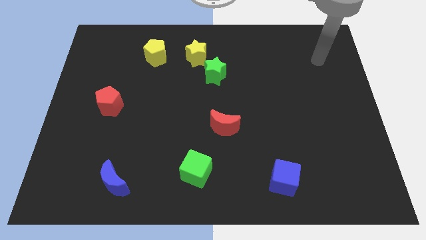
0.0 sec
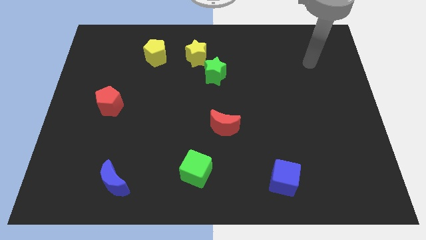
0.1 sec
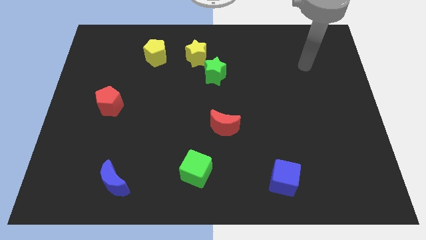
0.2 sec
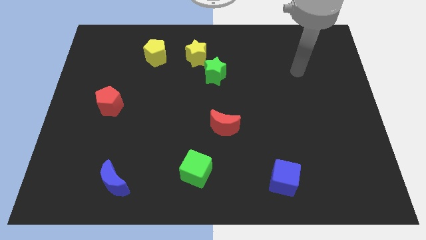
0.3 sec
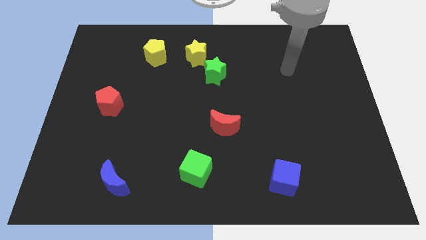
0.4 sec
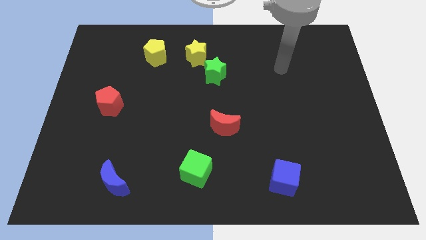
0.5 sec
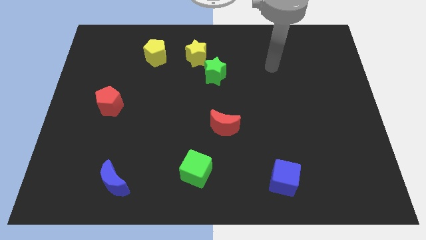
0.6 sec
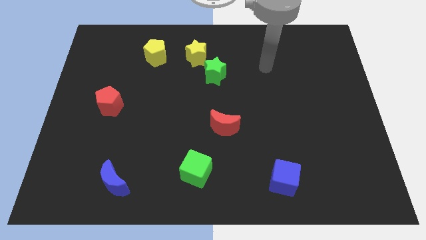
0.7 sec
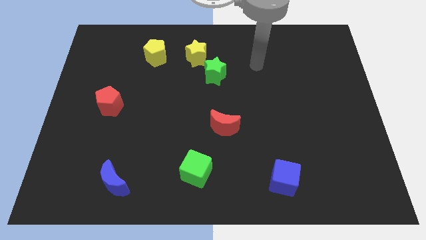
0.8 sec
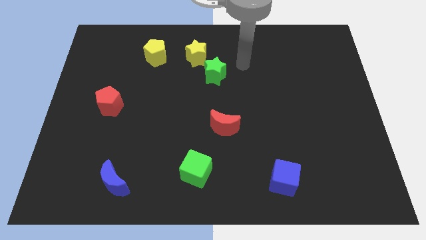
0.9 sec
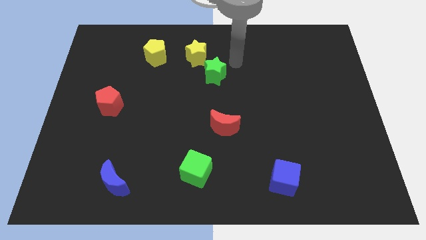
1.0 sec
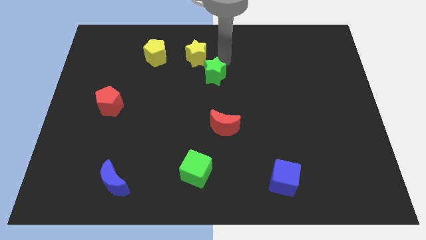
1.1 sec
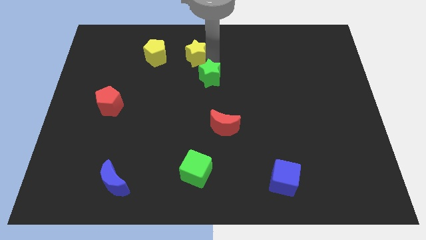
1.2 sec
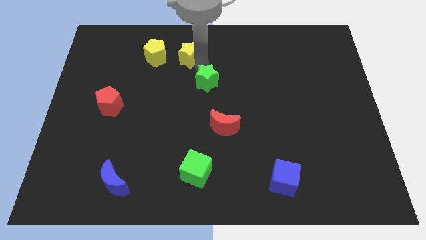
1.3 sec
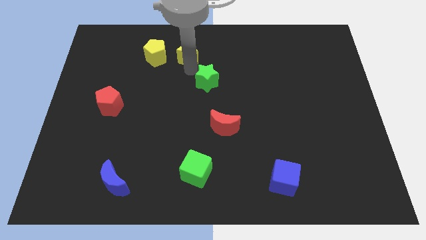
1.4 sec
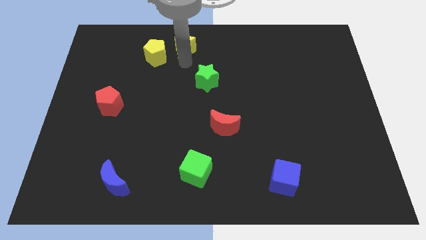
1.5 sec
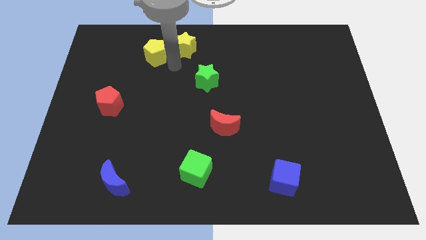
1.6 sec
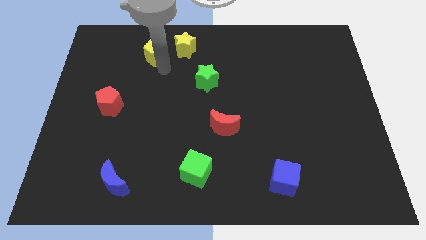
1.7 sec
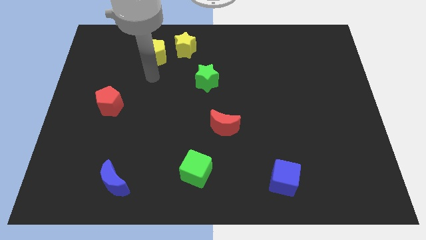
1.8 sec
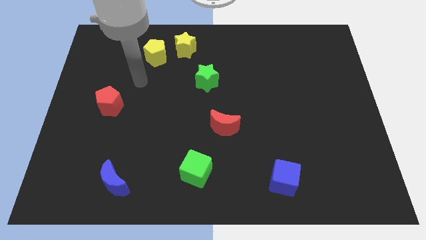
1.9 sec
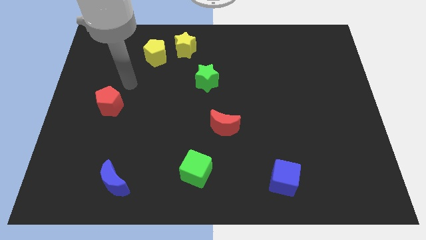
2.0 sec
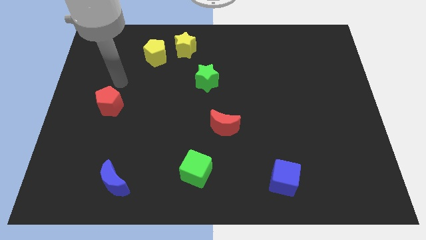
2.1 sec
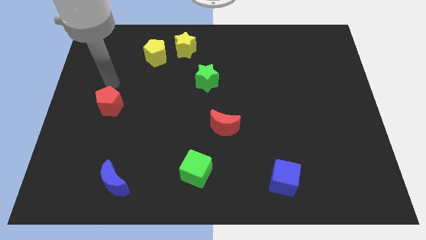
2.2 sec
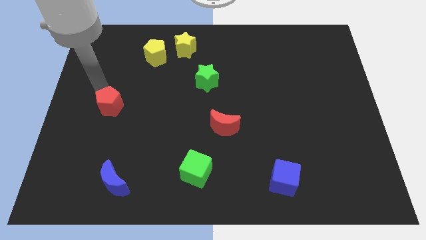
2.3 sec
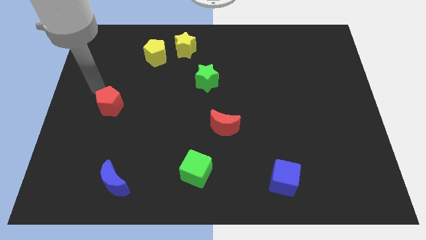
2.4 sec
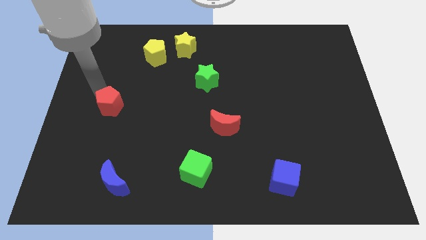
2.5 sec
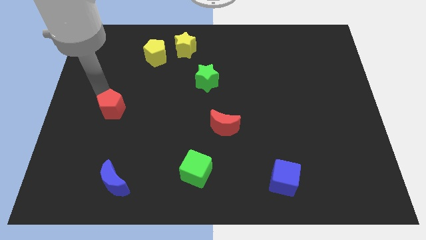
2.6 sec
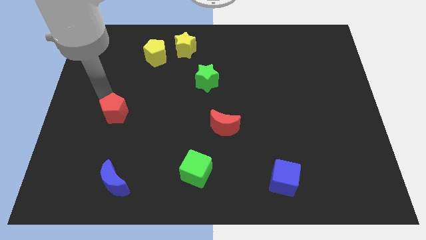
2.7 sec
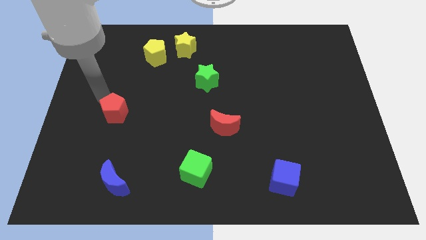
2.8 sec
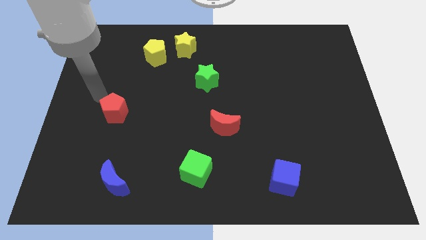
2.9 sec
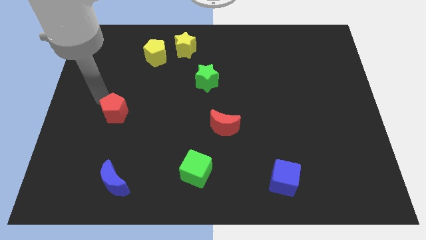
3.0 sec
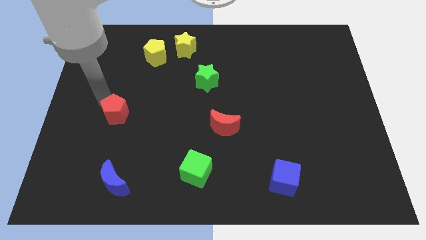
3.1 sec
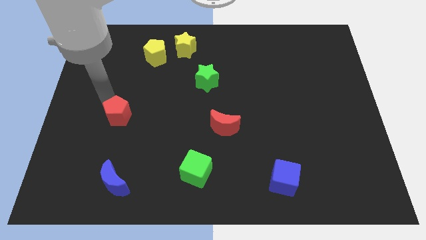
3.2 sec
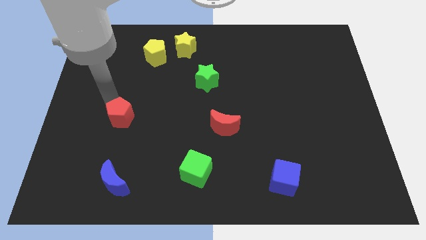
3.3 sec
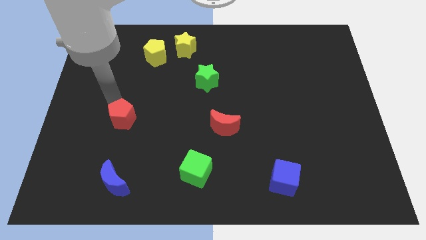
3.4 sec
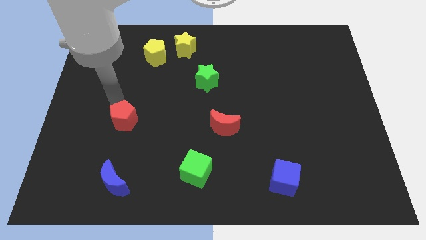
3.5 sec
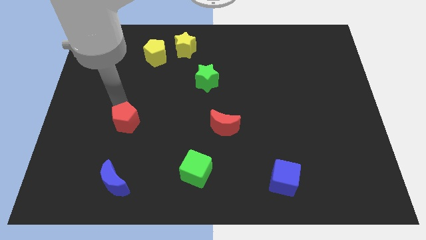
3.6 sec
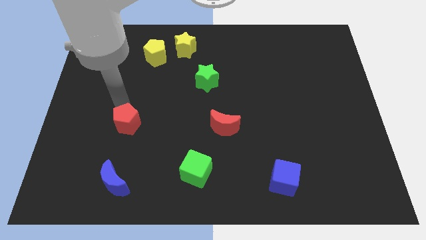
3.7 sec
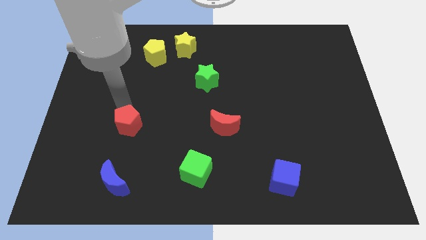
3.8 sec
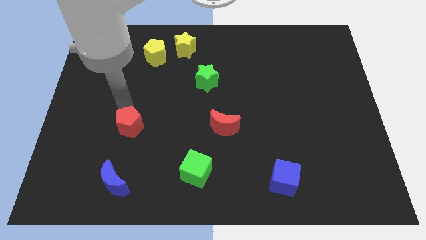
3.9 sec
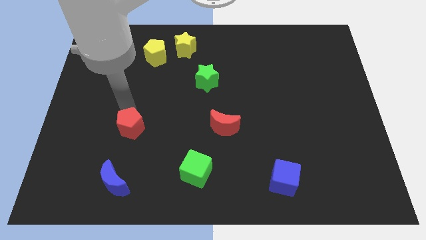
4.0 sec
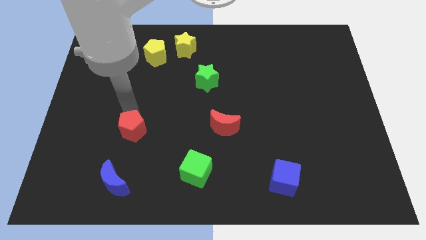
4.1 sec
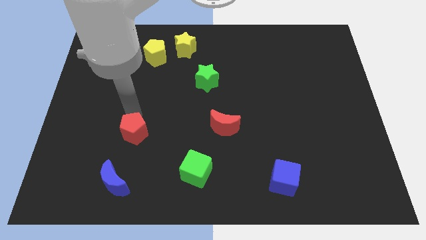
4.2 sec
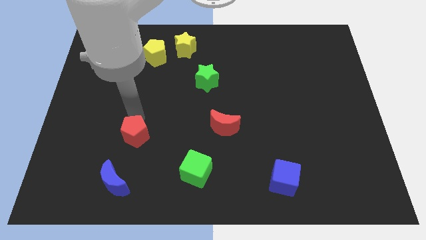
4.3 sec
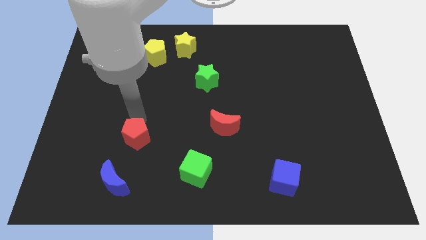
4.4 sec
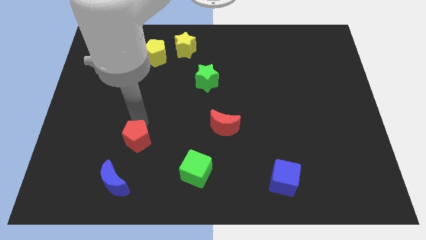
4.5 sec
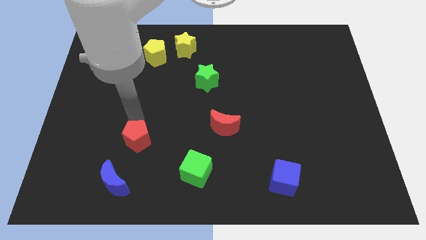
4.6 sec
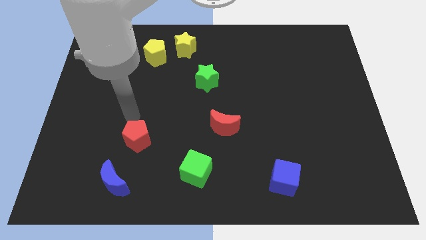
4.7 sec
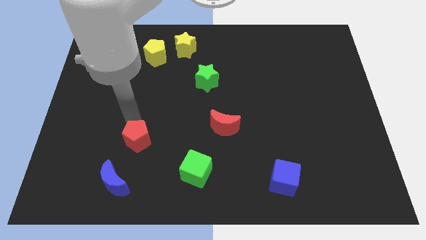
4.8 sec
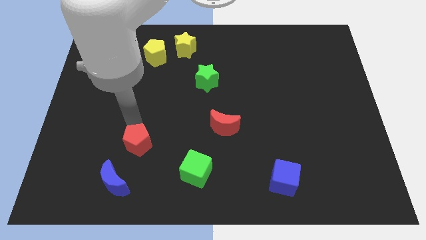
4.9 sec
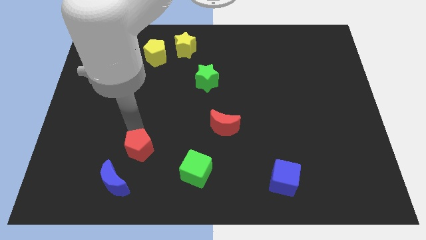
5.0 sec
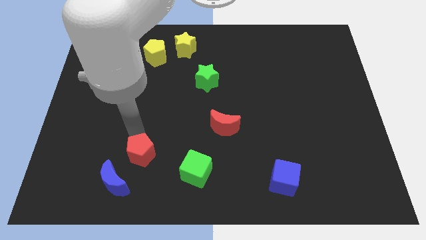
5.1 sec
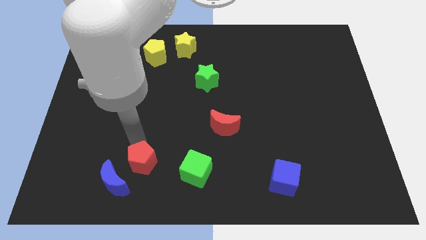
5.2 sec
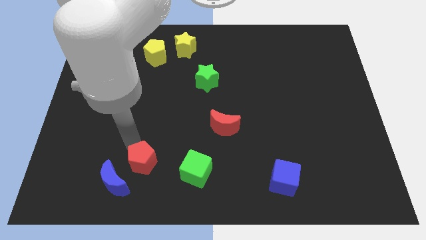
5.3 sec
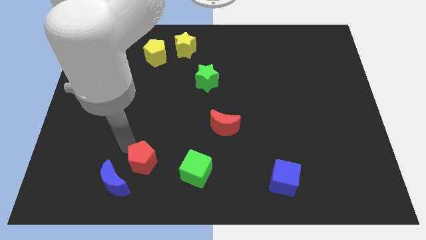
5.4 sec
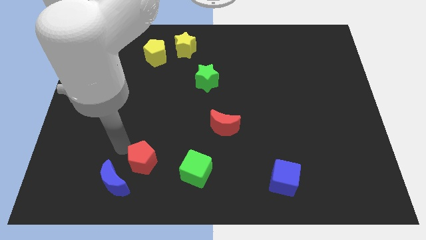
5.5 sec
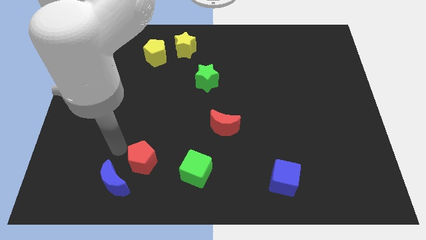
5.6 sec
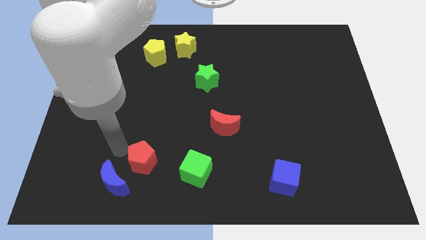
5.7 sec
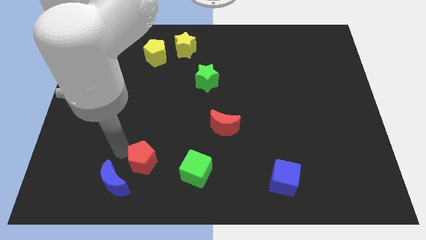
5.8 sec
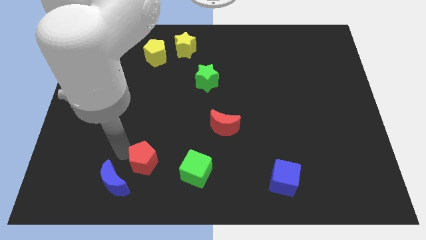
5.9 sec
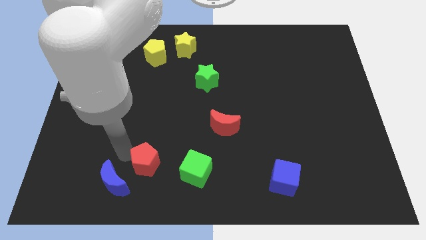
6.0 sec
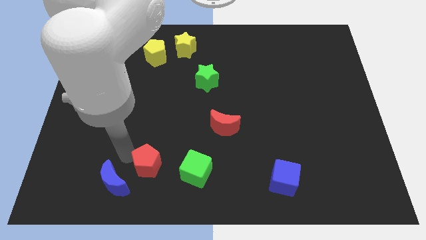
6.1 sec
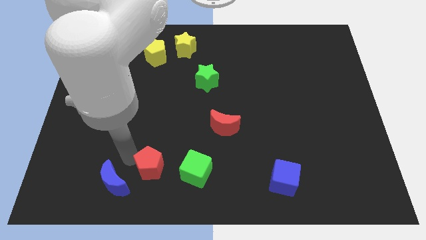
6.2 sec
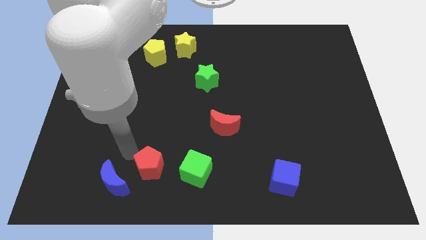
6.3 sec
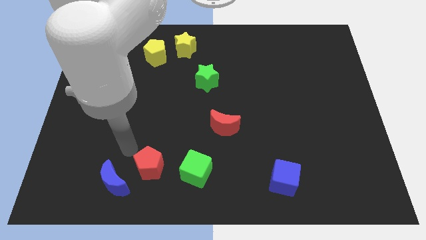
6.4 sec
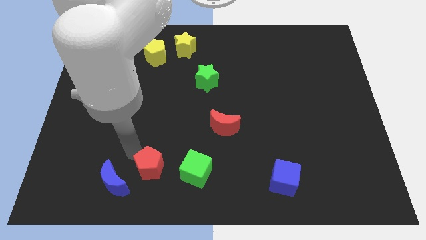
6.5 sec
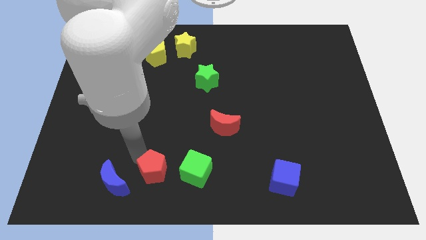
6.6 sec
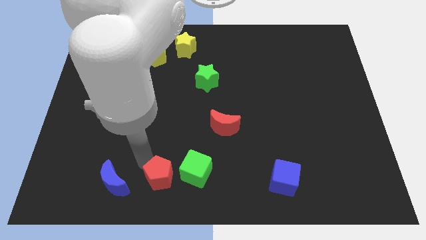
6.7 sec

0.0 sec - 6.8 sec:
put the red pentagon to the bottom side
